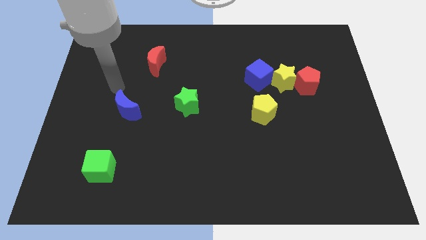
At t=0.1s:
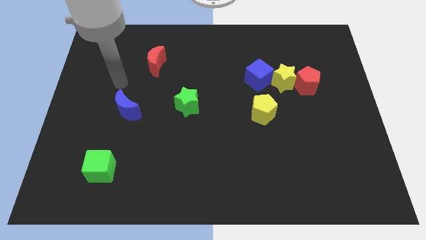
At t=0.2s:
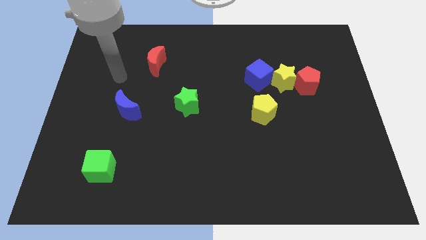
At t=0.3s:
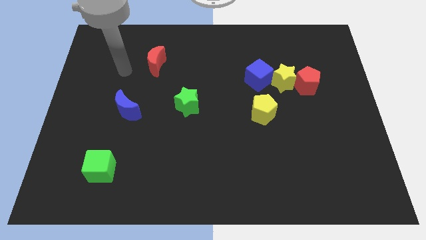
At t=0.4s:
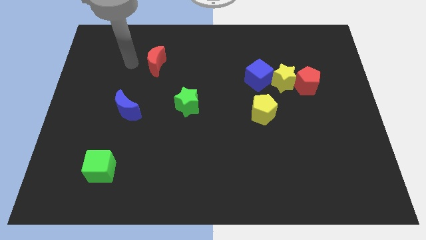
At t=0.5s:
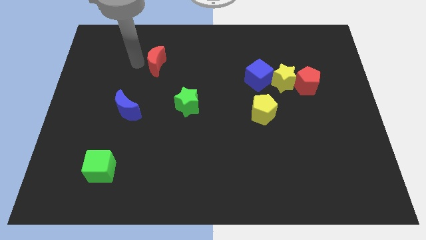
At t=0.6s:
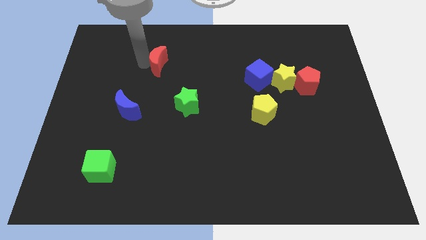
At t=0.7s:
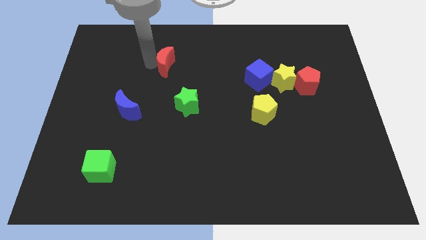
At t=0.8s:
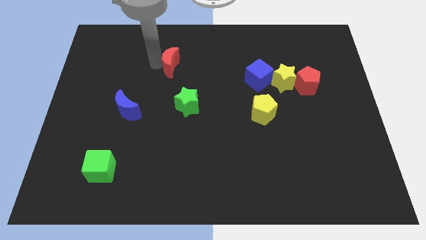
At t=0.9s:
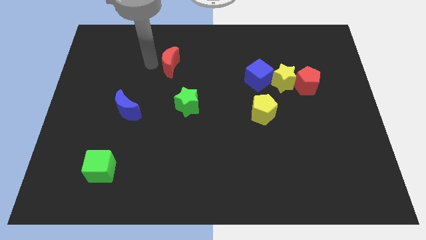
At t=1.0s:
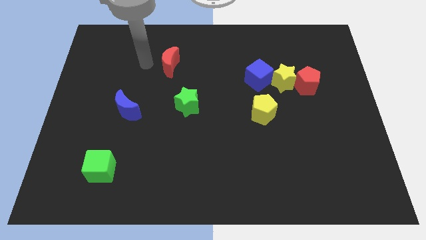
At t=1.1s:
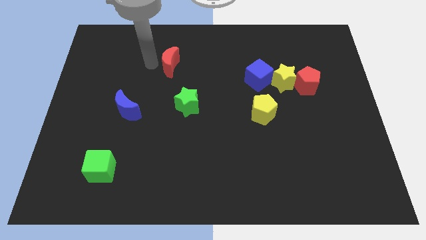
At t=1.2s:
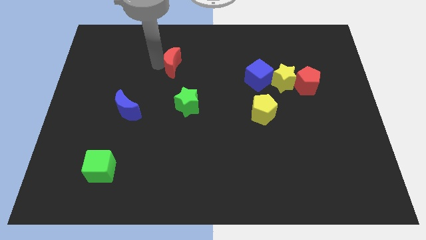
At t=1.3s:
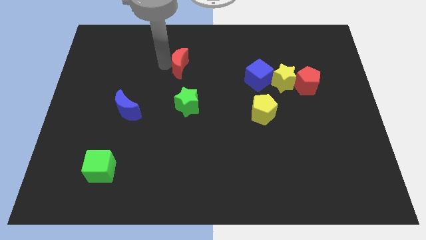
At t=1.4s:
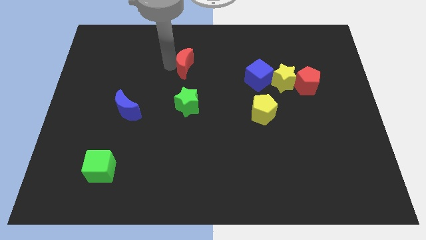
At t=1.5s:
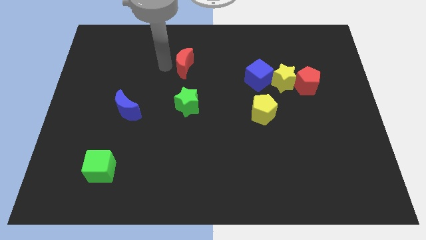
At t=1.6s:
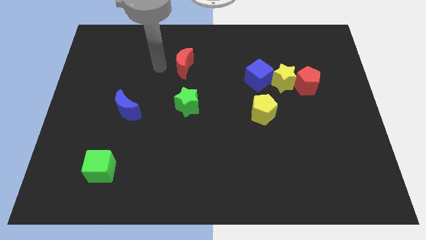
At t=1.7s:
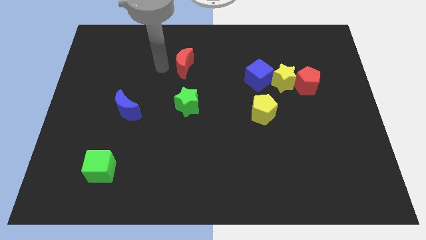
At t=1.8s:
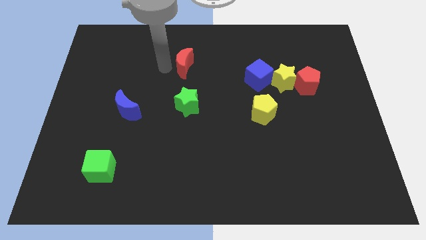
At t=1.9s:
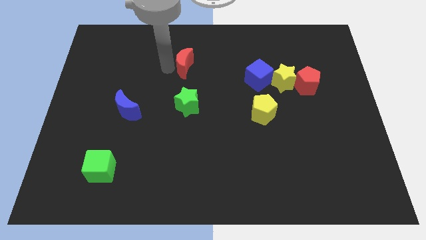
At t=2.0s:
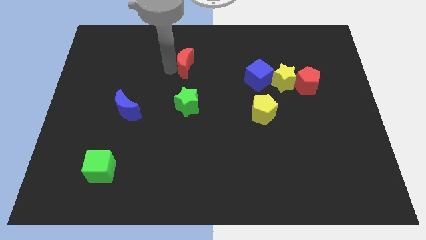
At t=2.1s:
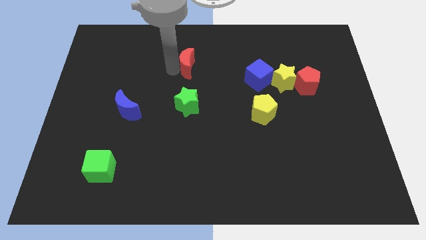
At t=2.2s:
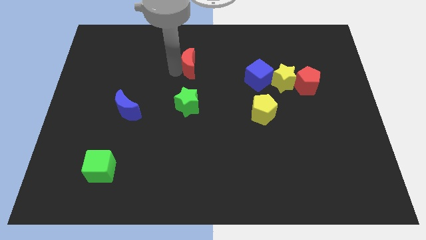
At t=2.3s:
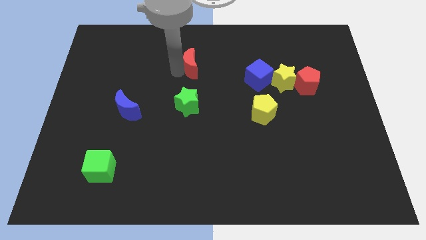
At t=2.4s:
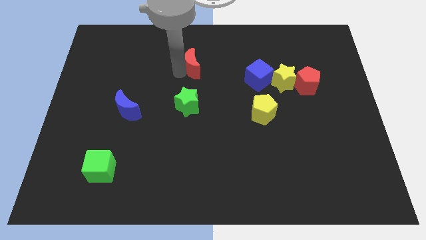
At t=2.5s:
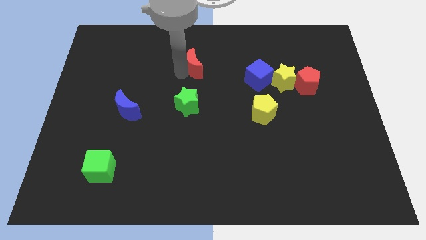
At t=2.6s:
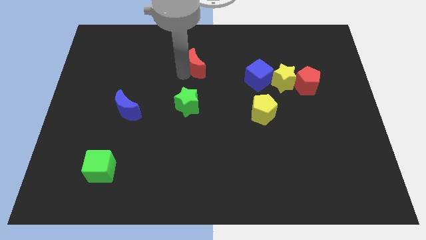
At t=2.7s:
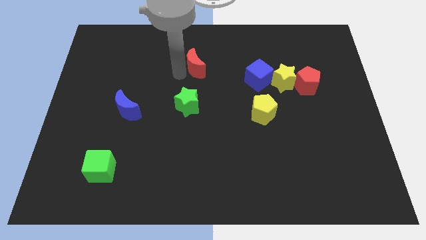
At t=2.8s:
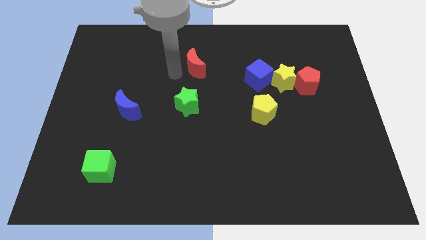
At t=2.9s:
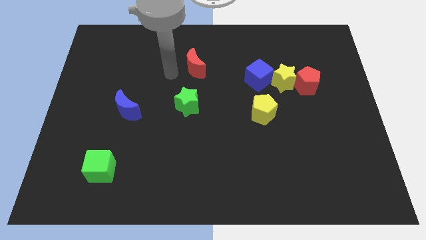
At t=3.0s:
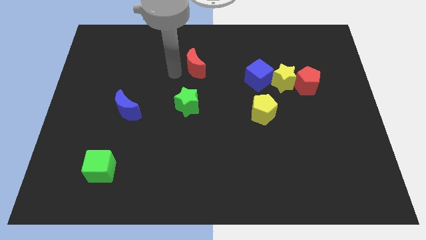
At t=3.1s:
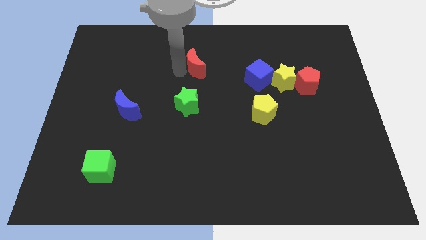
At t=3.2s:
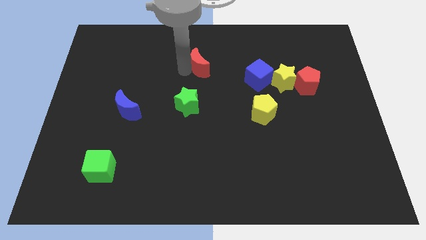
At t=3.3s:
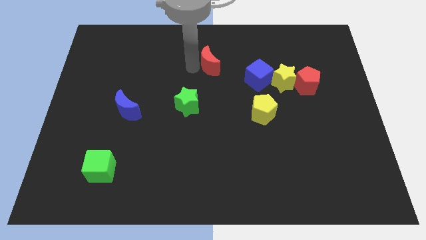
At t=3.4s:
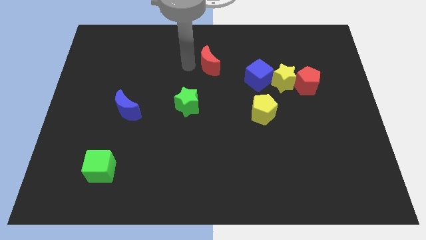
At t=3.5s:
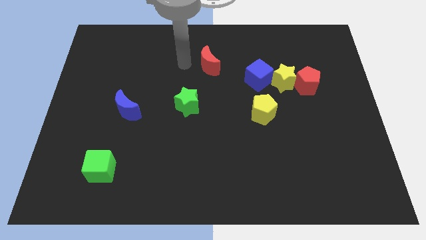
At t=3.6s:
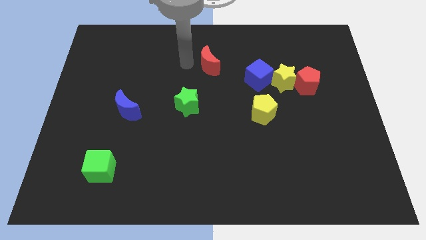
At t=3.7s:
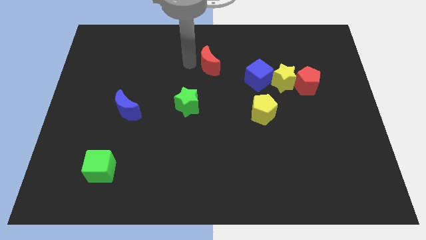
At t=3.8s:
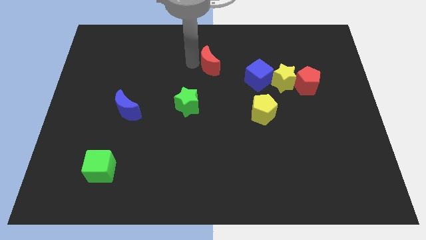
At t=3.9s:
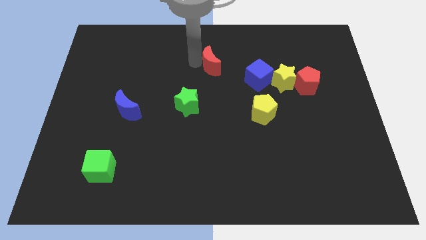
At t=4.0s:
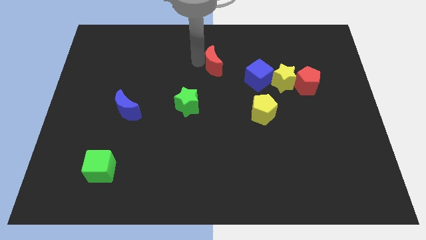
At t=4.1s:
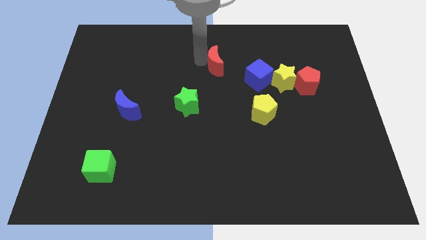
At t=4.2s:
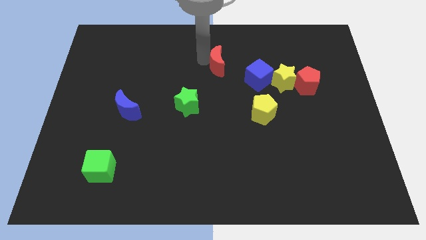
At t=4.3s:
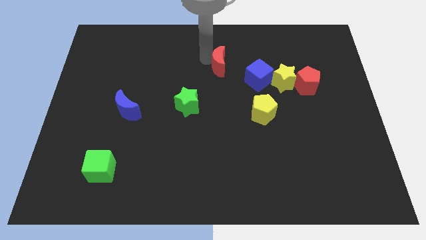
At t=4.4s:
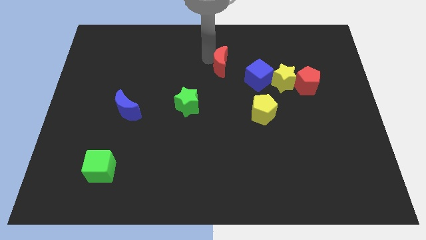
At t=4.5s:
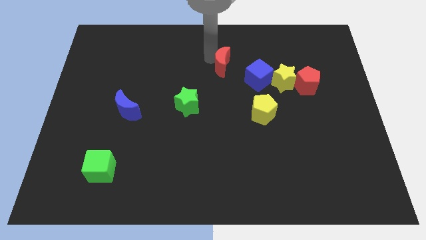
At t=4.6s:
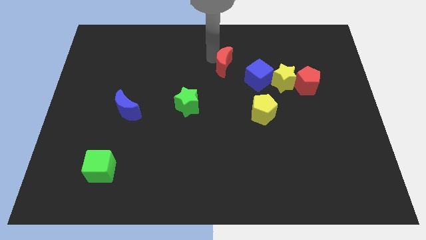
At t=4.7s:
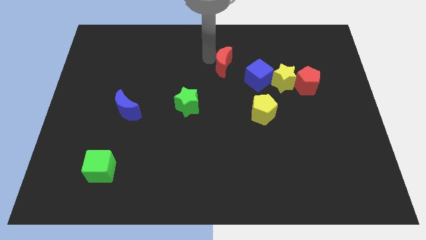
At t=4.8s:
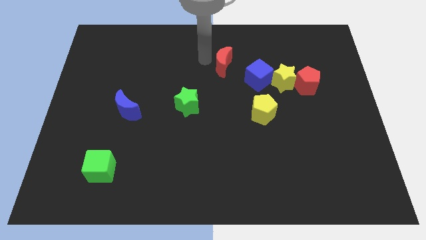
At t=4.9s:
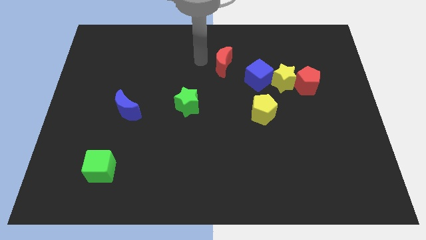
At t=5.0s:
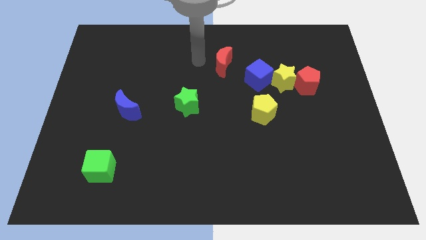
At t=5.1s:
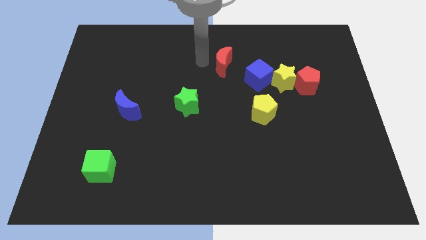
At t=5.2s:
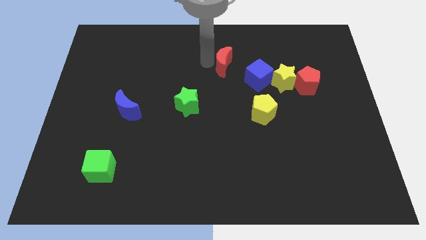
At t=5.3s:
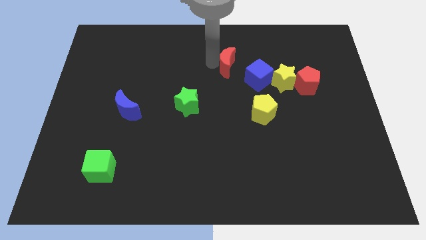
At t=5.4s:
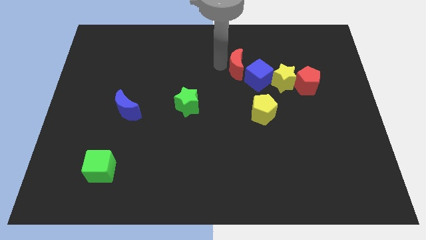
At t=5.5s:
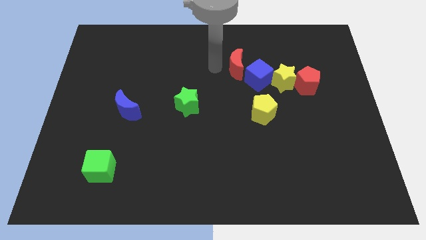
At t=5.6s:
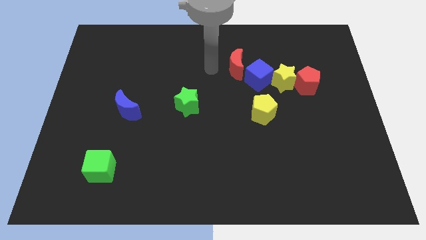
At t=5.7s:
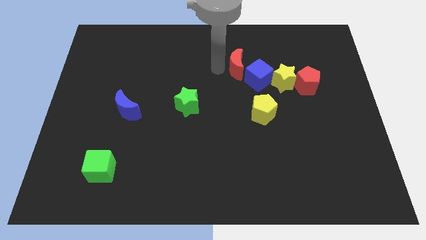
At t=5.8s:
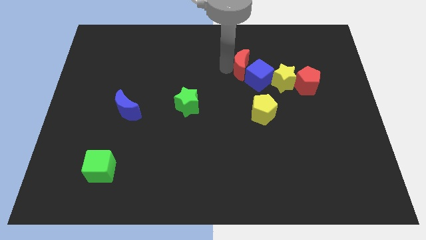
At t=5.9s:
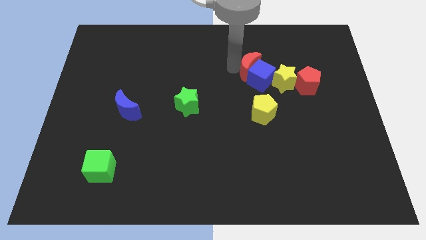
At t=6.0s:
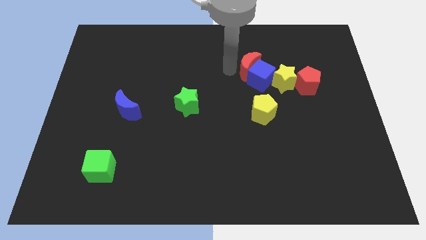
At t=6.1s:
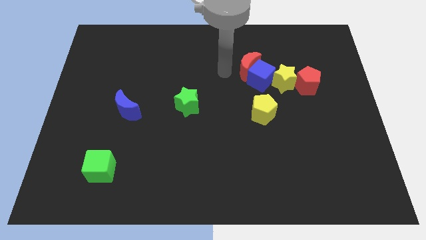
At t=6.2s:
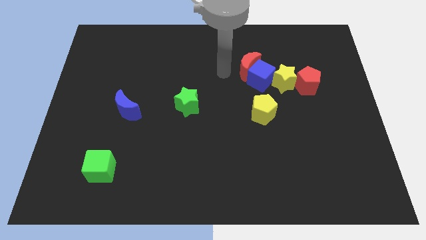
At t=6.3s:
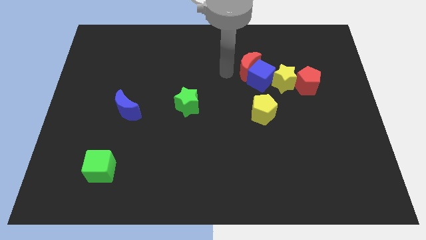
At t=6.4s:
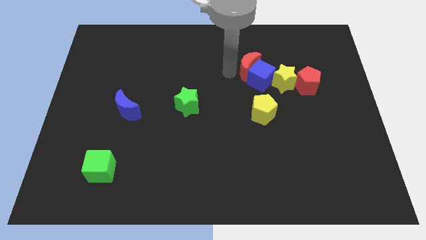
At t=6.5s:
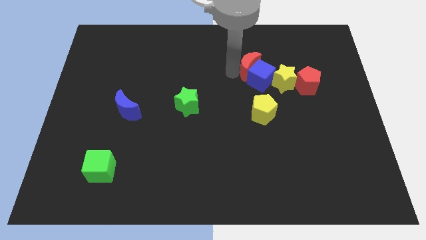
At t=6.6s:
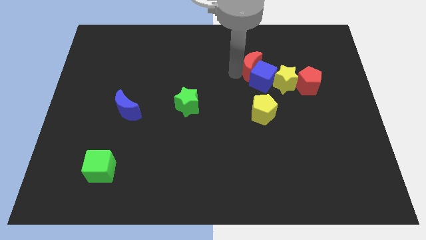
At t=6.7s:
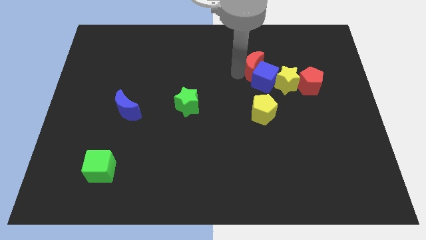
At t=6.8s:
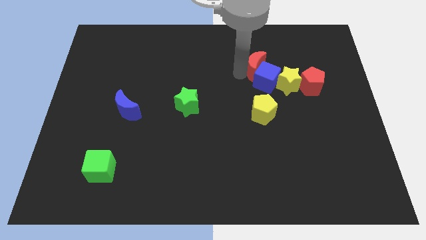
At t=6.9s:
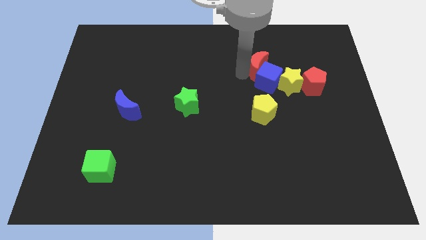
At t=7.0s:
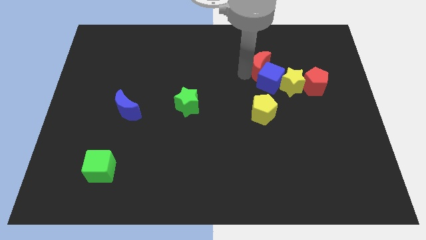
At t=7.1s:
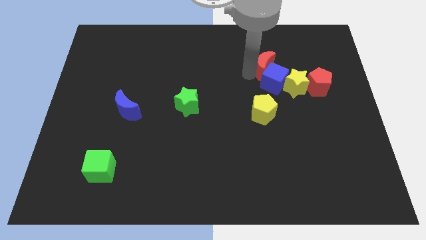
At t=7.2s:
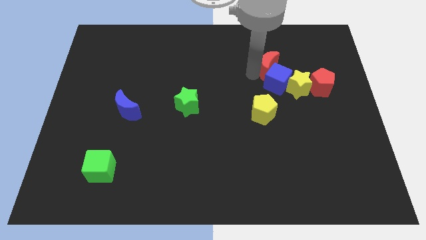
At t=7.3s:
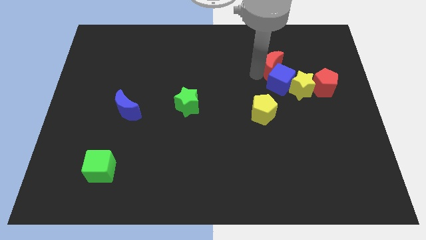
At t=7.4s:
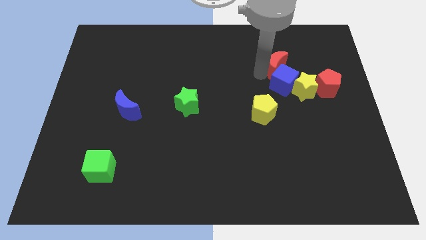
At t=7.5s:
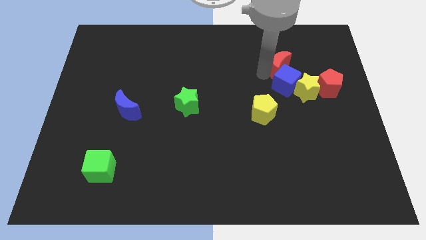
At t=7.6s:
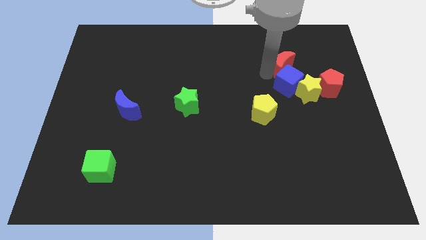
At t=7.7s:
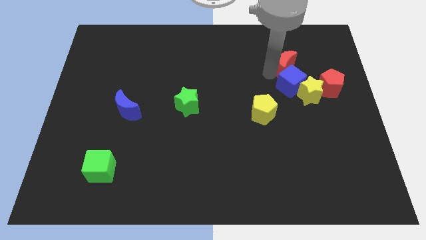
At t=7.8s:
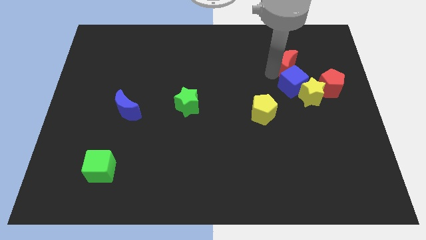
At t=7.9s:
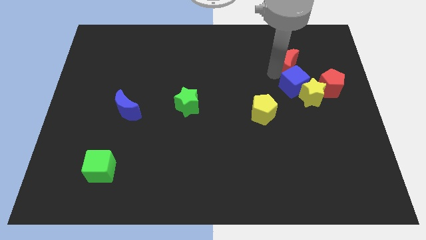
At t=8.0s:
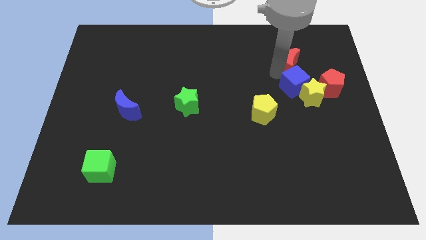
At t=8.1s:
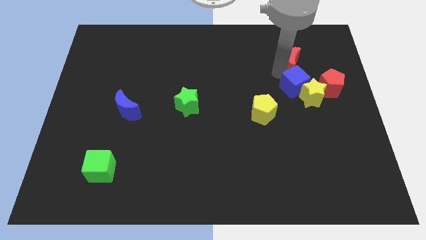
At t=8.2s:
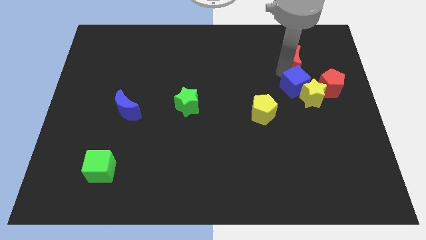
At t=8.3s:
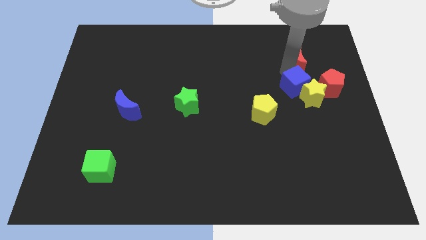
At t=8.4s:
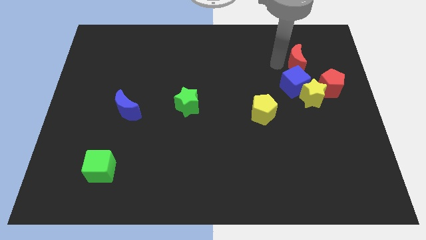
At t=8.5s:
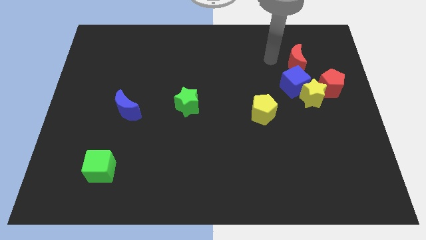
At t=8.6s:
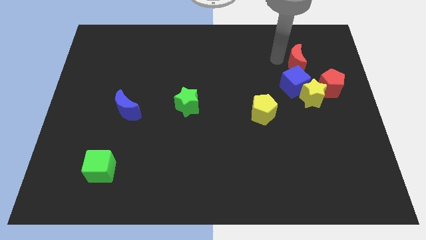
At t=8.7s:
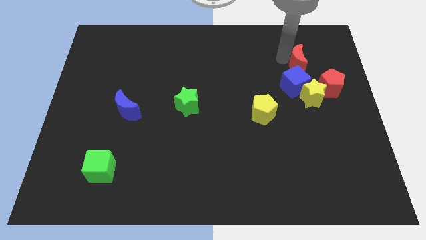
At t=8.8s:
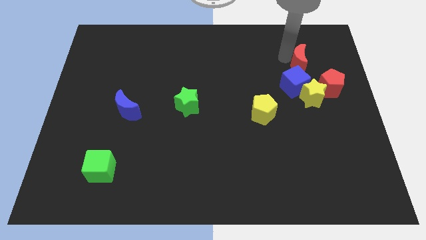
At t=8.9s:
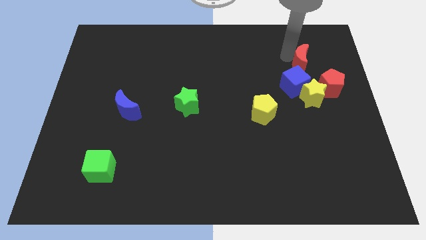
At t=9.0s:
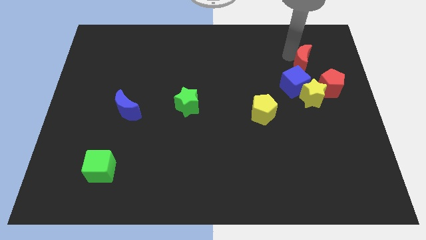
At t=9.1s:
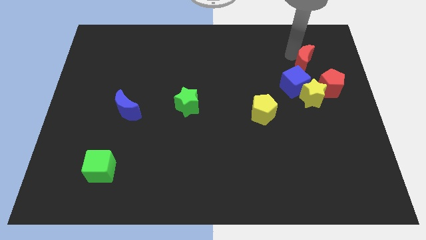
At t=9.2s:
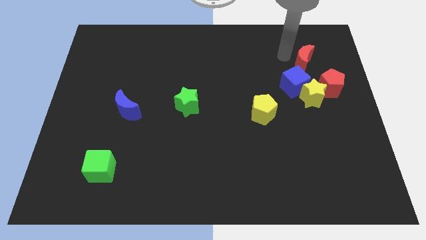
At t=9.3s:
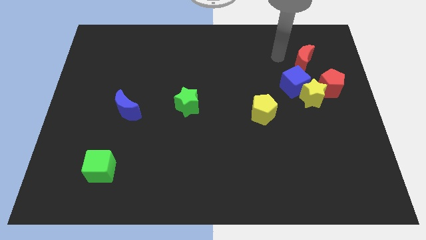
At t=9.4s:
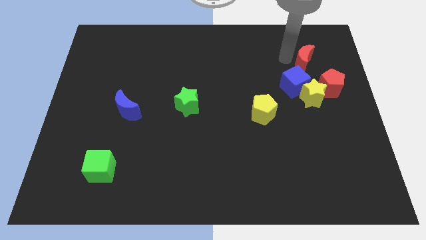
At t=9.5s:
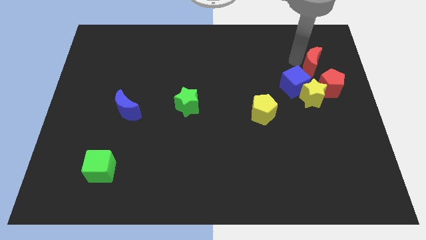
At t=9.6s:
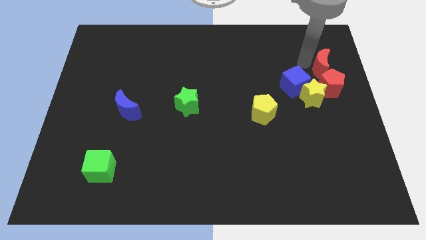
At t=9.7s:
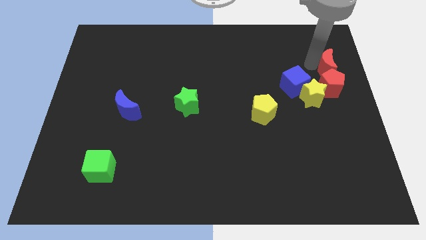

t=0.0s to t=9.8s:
slide the red moon to the top right of the red pentagon
